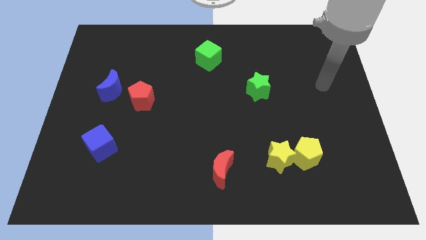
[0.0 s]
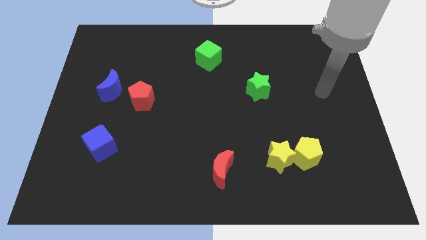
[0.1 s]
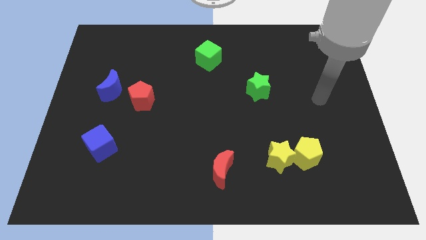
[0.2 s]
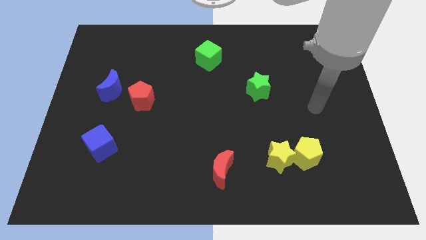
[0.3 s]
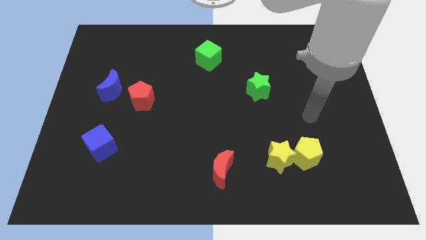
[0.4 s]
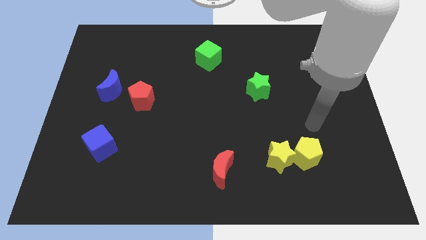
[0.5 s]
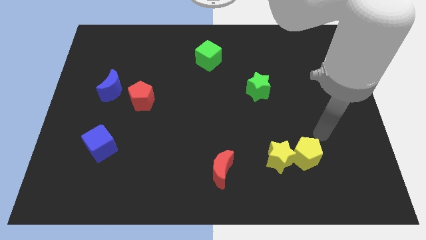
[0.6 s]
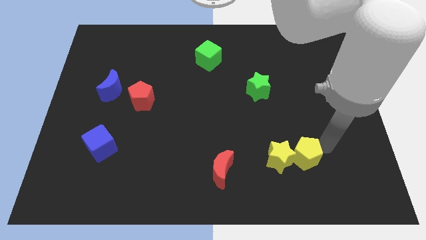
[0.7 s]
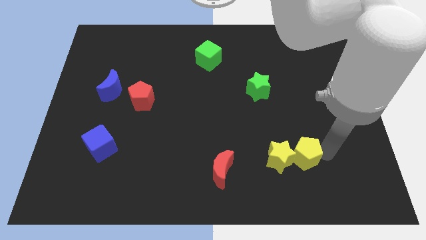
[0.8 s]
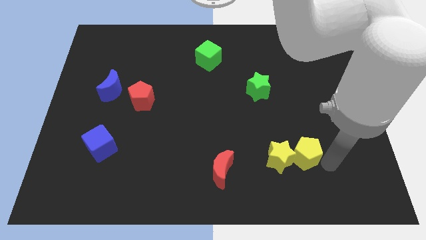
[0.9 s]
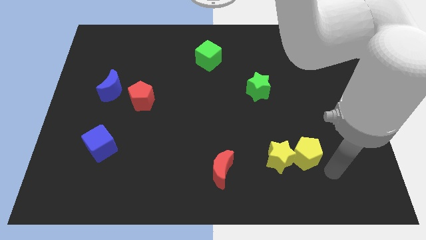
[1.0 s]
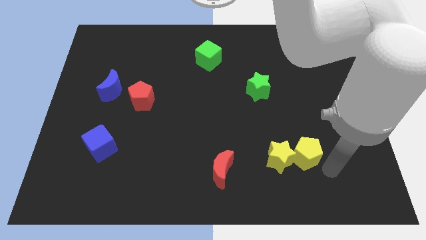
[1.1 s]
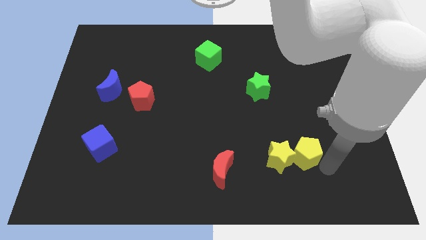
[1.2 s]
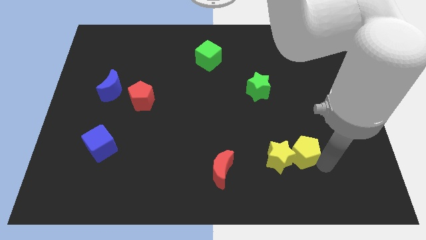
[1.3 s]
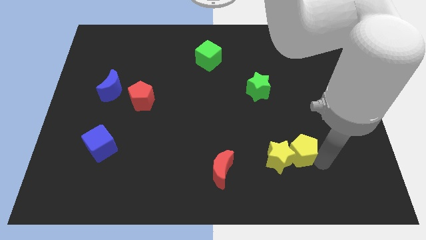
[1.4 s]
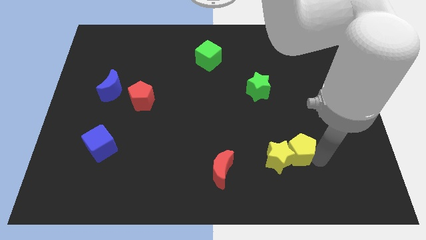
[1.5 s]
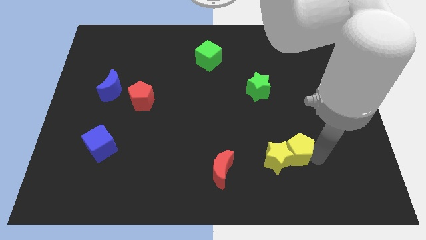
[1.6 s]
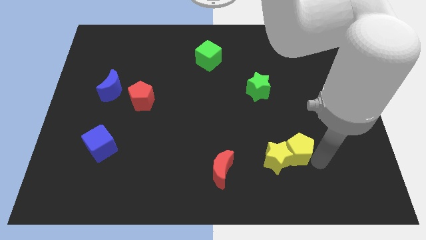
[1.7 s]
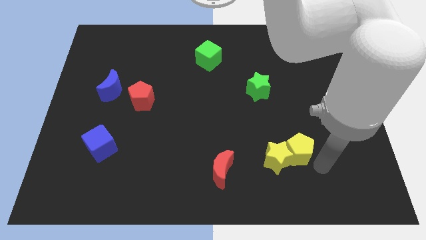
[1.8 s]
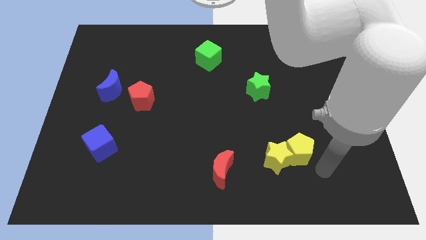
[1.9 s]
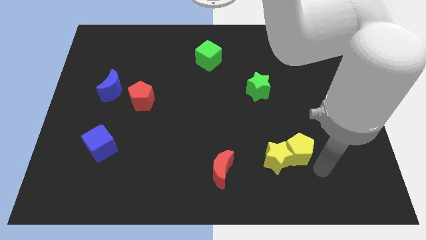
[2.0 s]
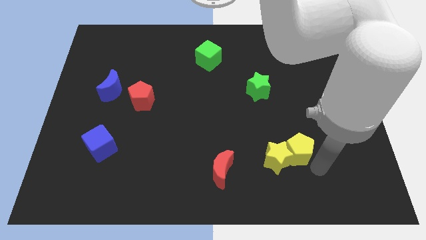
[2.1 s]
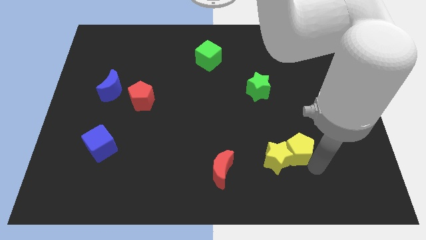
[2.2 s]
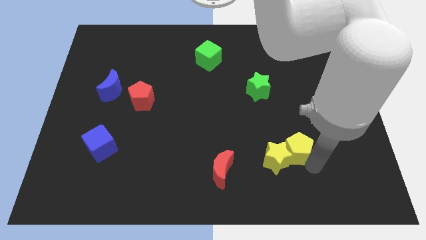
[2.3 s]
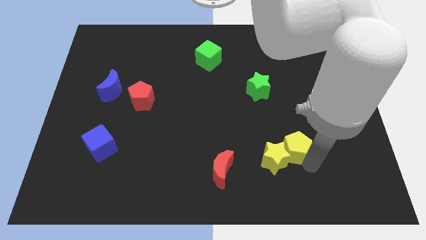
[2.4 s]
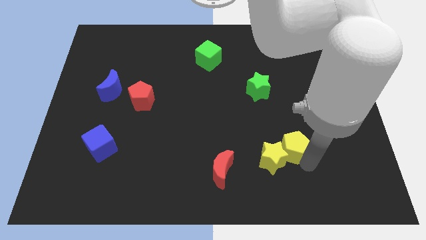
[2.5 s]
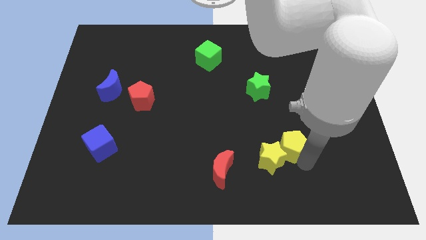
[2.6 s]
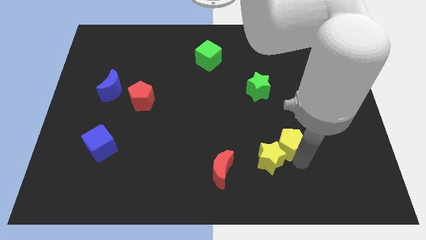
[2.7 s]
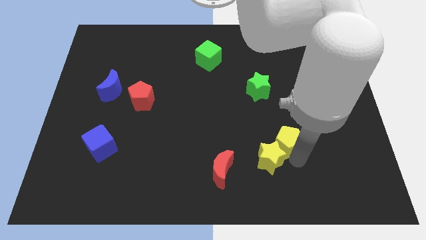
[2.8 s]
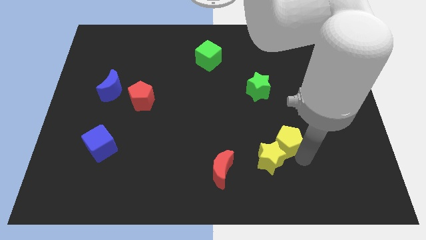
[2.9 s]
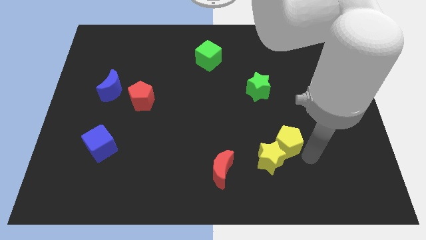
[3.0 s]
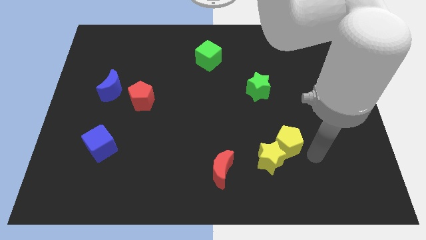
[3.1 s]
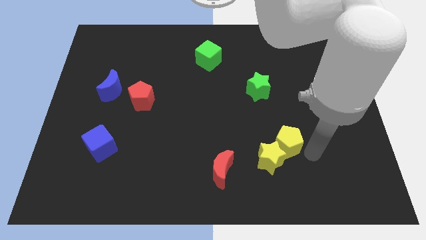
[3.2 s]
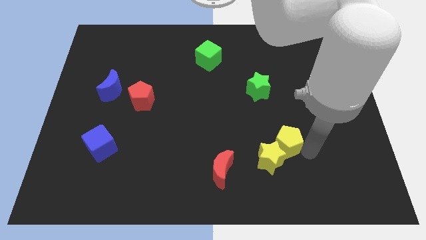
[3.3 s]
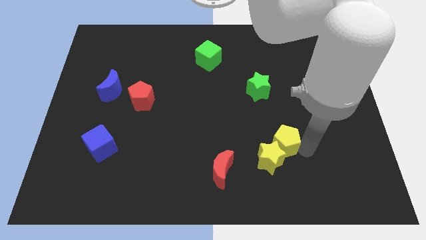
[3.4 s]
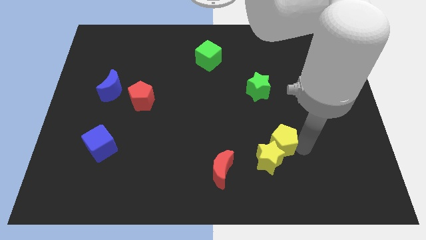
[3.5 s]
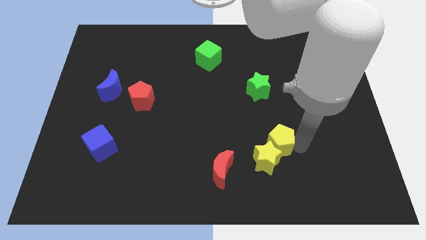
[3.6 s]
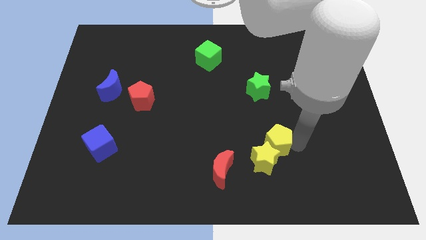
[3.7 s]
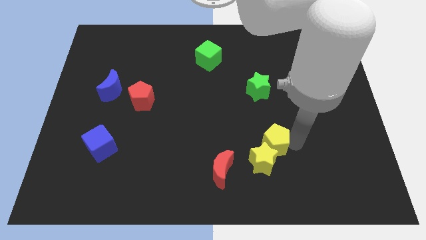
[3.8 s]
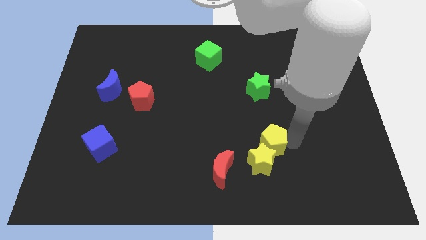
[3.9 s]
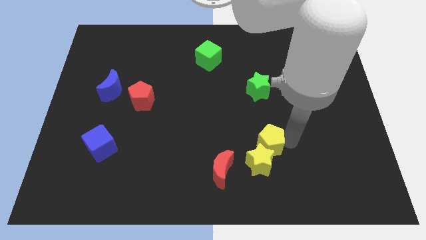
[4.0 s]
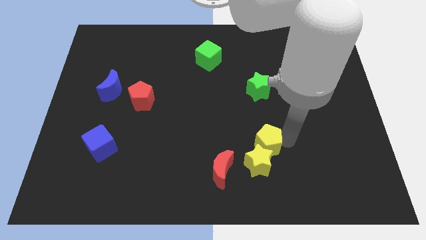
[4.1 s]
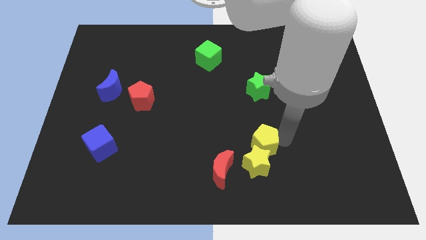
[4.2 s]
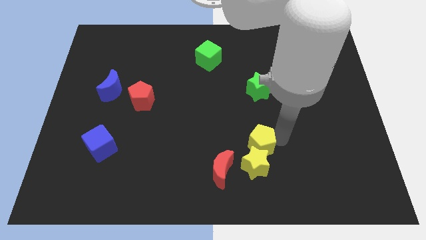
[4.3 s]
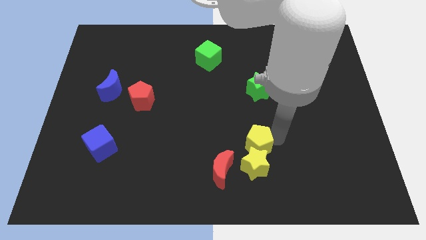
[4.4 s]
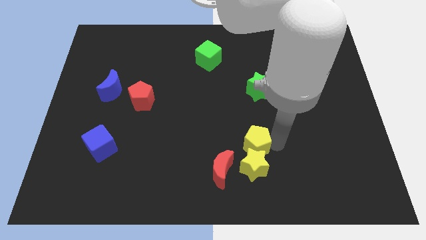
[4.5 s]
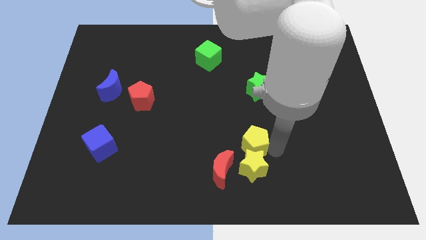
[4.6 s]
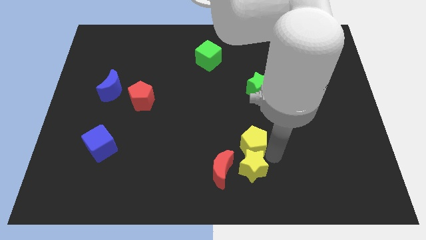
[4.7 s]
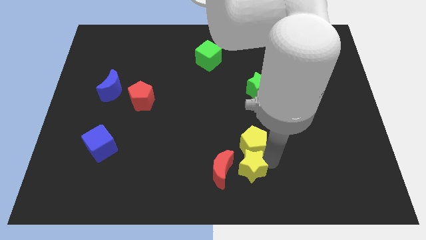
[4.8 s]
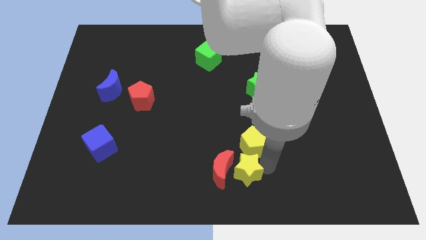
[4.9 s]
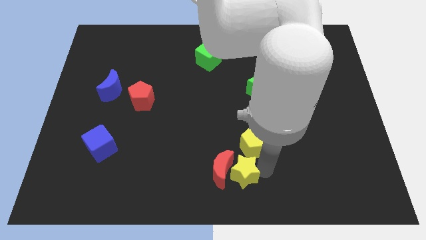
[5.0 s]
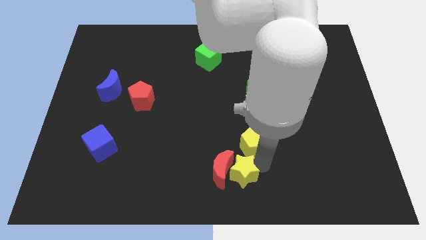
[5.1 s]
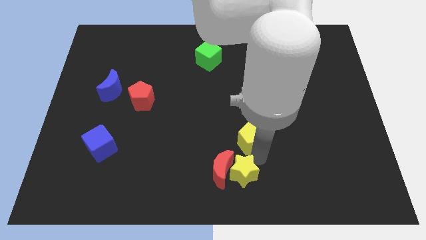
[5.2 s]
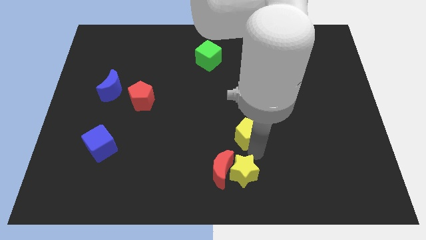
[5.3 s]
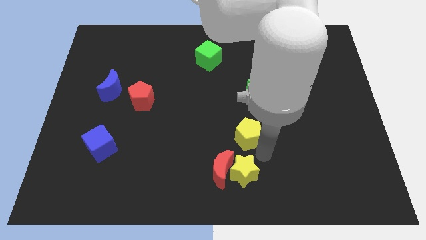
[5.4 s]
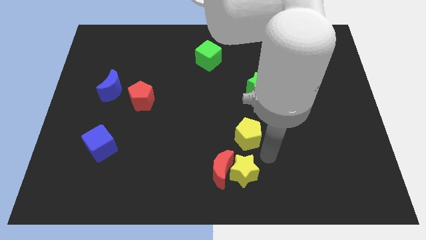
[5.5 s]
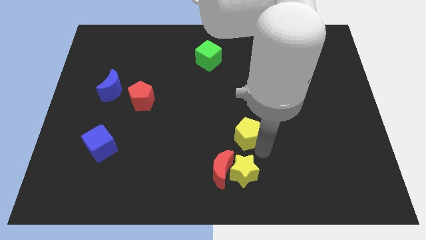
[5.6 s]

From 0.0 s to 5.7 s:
move the yellow pentagon to the center of the board
